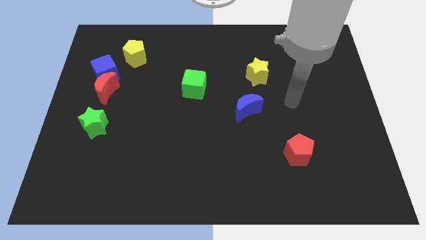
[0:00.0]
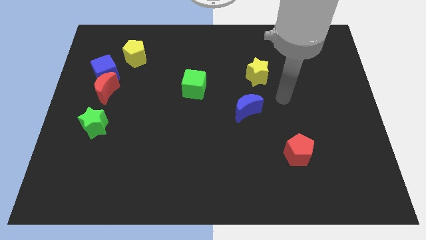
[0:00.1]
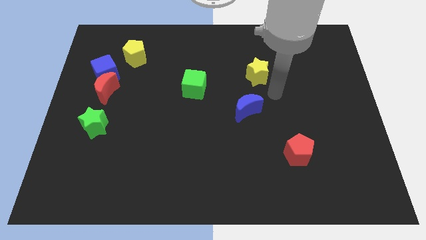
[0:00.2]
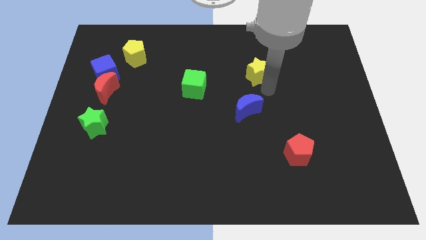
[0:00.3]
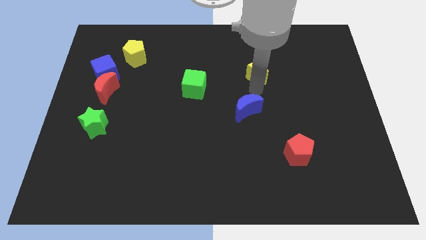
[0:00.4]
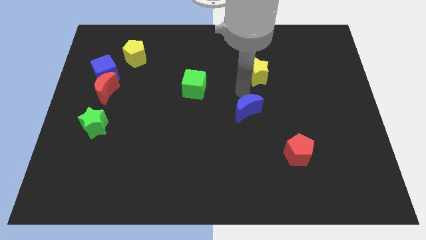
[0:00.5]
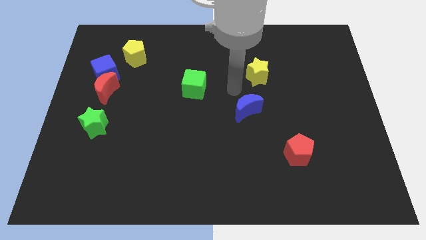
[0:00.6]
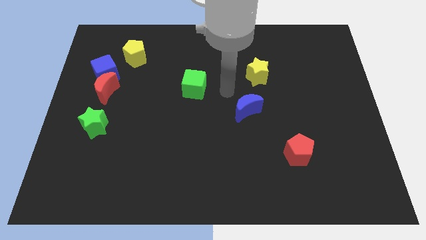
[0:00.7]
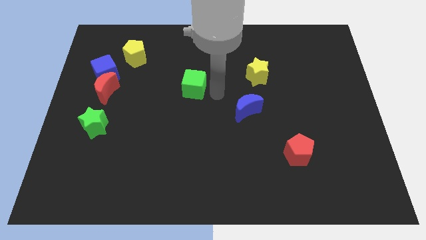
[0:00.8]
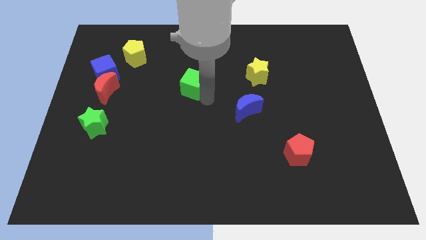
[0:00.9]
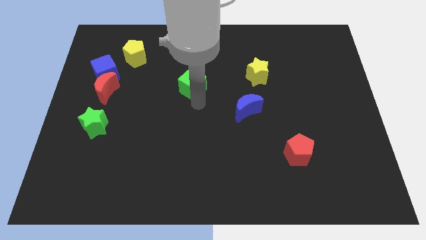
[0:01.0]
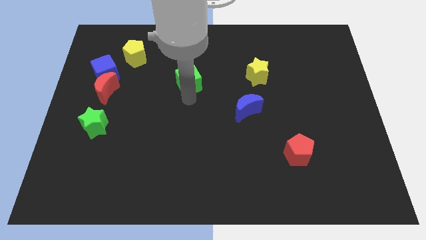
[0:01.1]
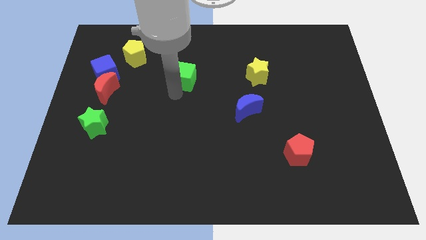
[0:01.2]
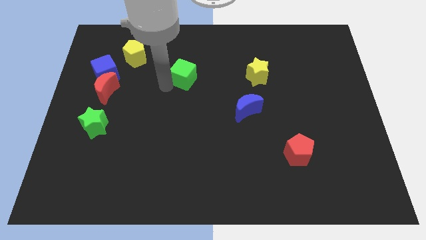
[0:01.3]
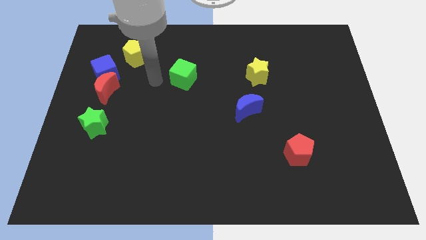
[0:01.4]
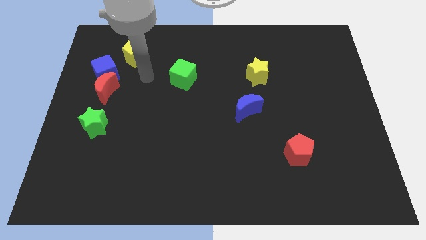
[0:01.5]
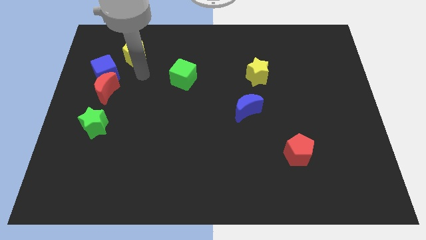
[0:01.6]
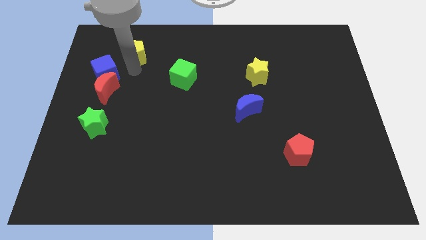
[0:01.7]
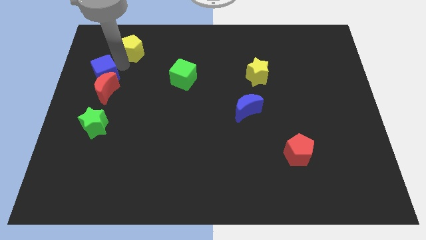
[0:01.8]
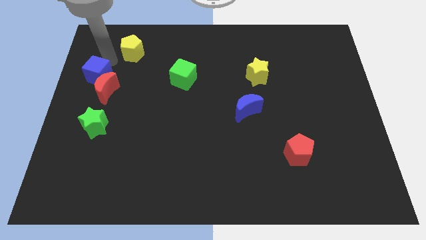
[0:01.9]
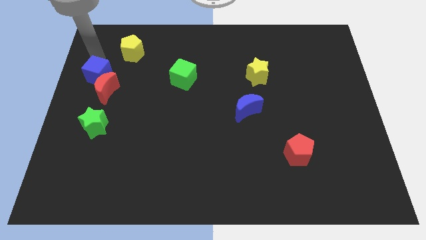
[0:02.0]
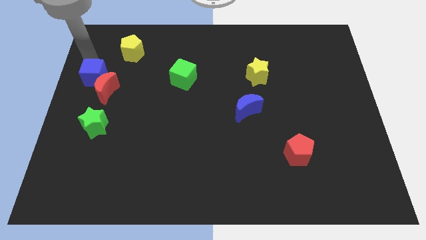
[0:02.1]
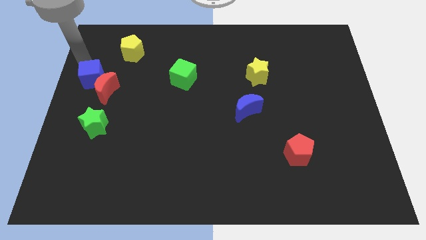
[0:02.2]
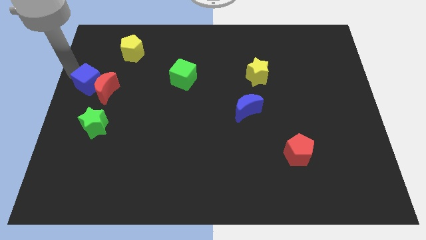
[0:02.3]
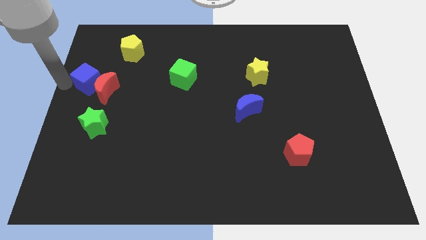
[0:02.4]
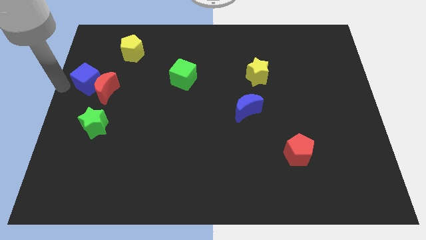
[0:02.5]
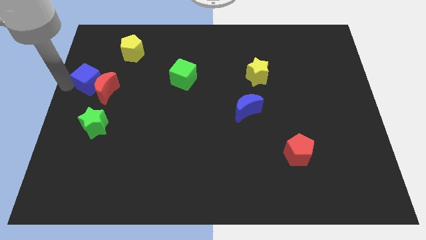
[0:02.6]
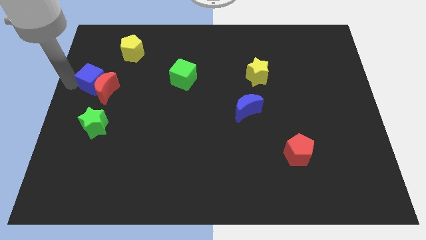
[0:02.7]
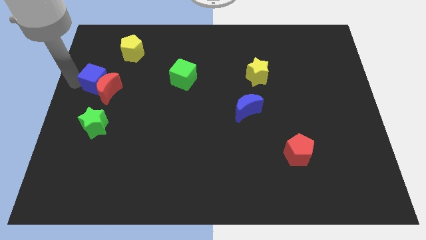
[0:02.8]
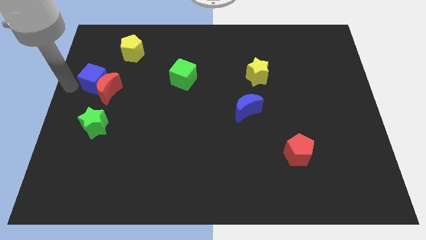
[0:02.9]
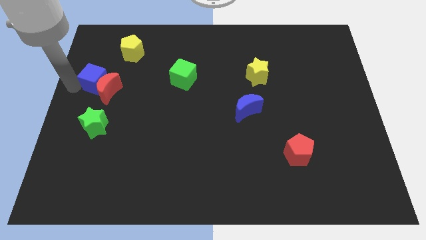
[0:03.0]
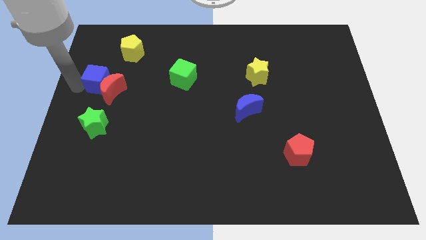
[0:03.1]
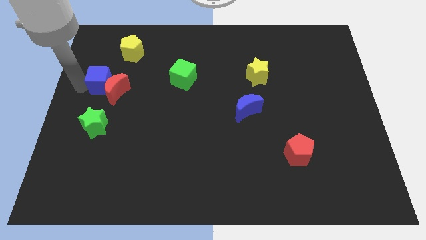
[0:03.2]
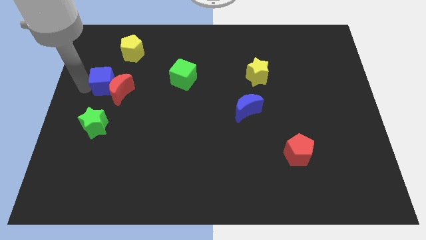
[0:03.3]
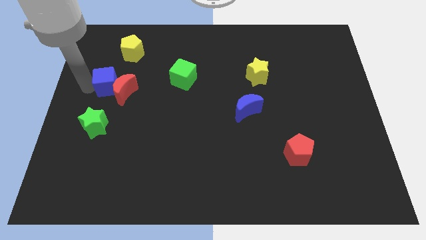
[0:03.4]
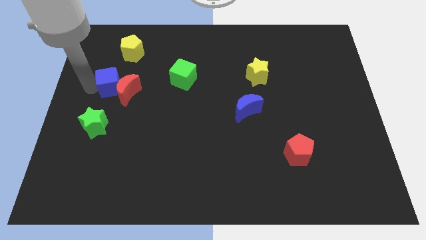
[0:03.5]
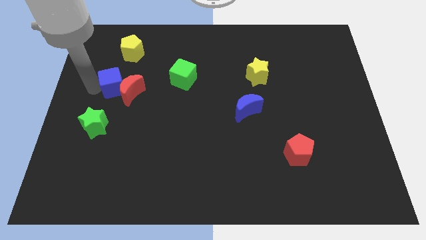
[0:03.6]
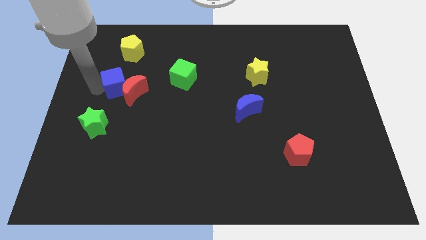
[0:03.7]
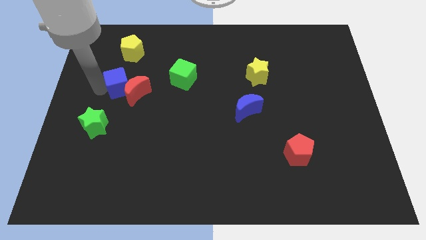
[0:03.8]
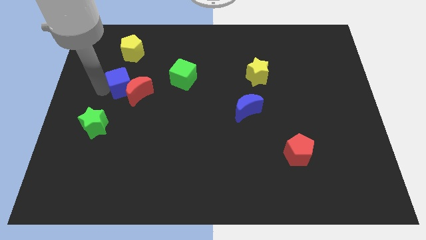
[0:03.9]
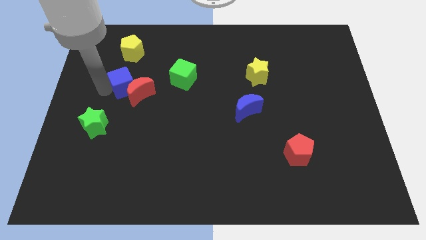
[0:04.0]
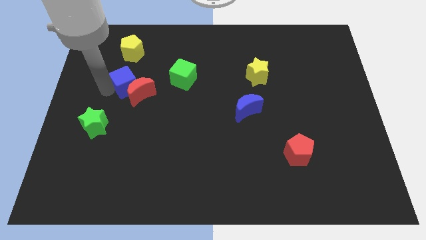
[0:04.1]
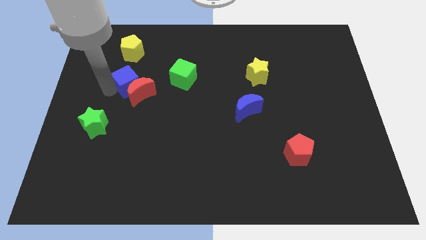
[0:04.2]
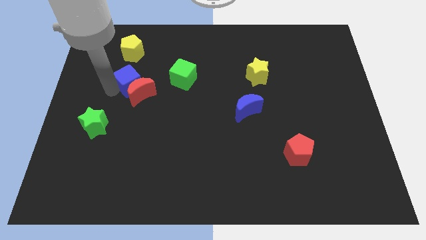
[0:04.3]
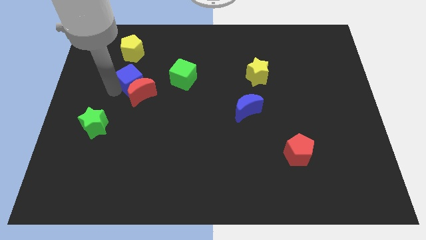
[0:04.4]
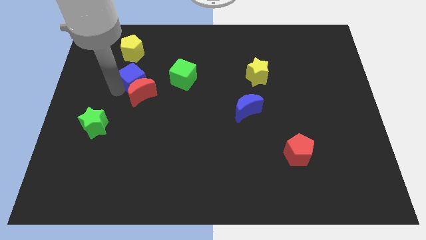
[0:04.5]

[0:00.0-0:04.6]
slightly move the blue cube to the right

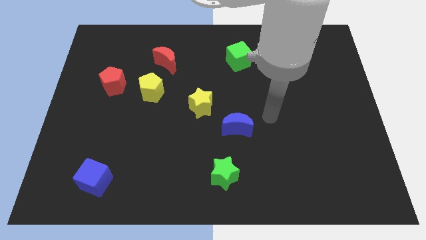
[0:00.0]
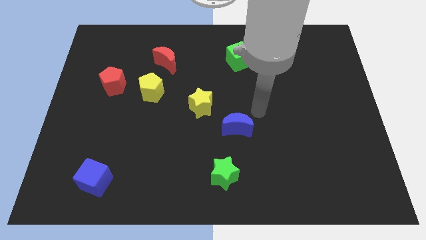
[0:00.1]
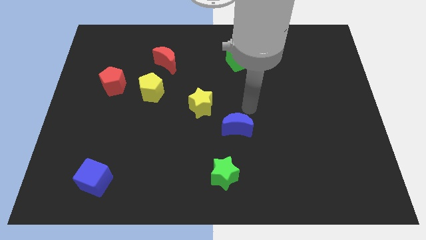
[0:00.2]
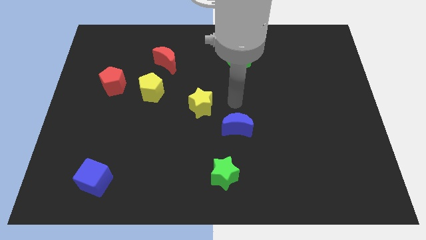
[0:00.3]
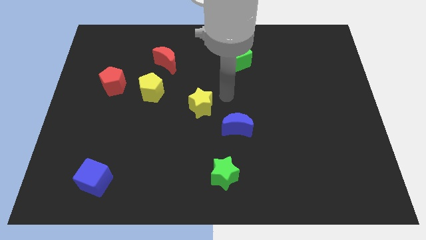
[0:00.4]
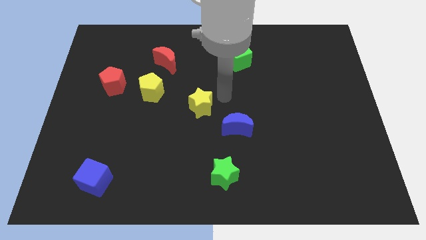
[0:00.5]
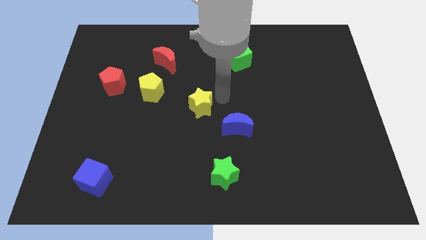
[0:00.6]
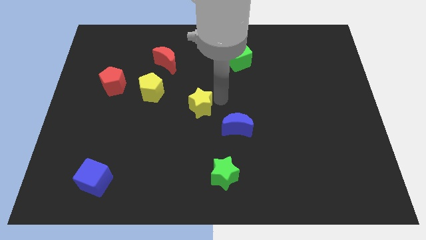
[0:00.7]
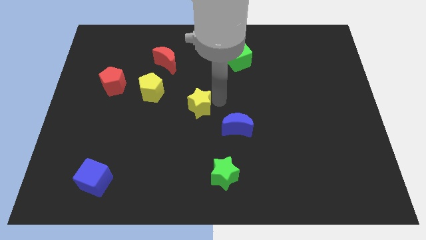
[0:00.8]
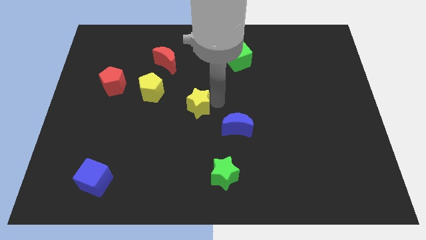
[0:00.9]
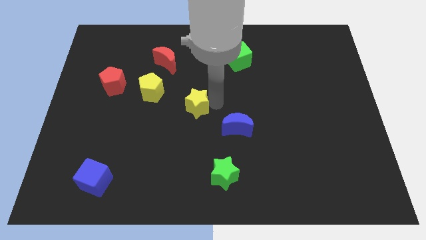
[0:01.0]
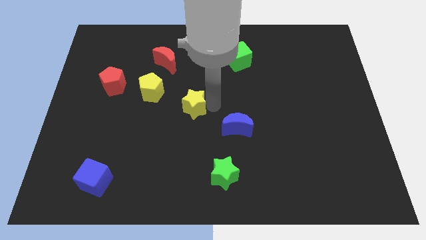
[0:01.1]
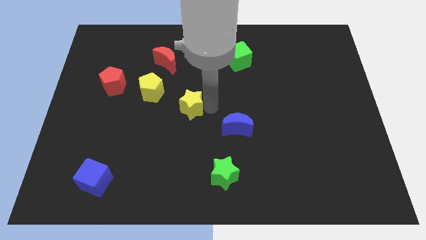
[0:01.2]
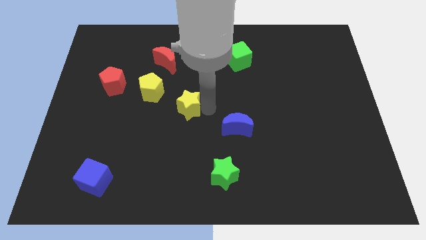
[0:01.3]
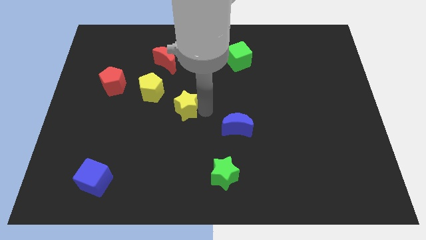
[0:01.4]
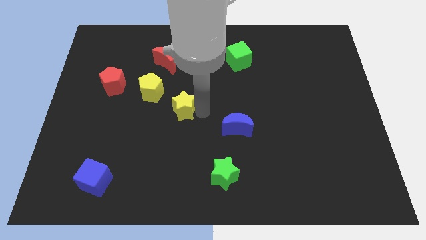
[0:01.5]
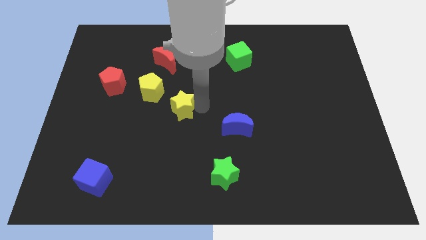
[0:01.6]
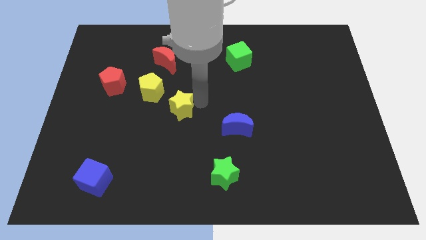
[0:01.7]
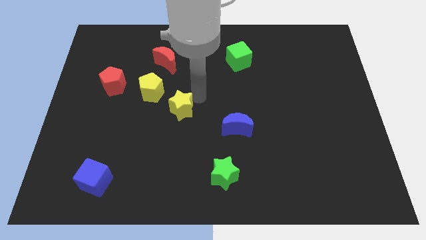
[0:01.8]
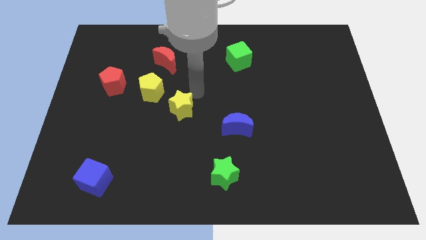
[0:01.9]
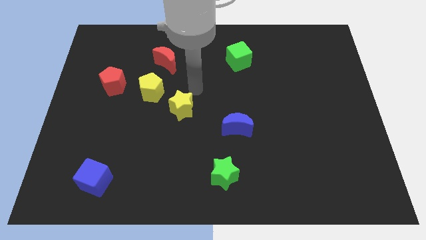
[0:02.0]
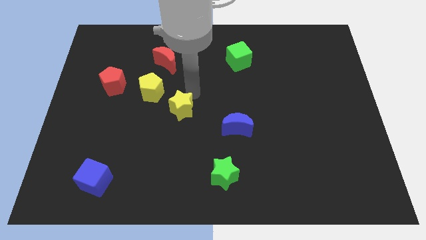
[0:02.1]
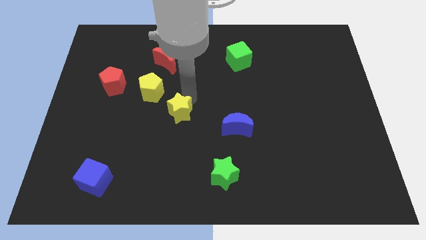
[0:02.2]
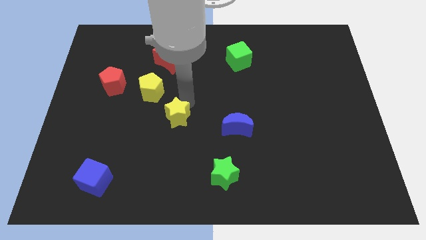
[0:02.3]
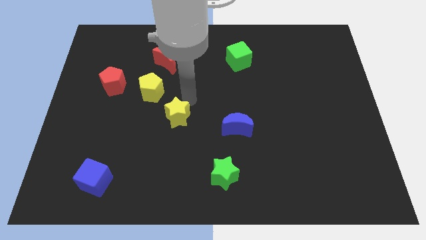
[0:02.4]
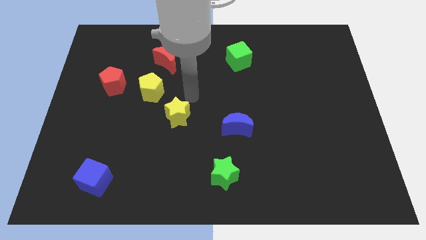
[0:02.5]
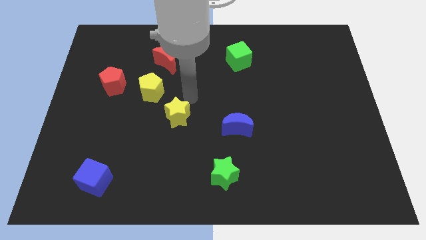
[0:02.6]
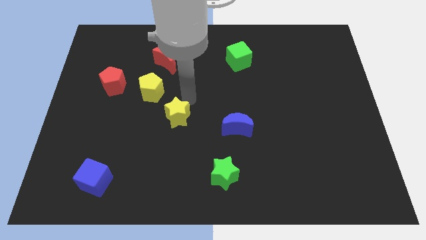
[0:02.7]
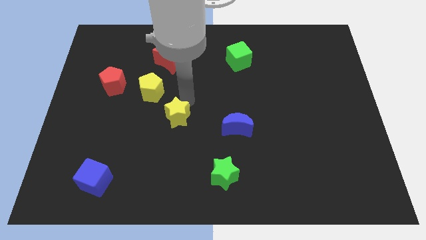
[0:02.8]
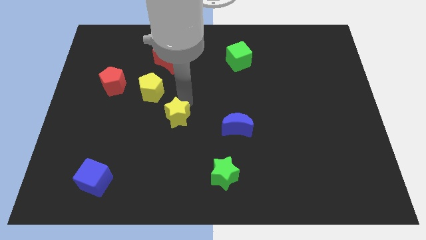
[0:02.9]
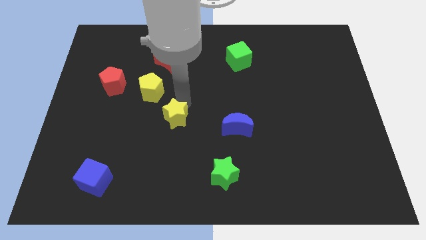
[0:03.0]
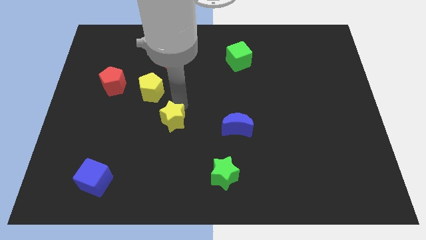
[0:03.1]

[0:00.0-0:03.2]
slightly push the yellow star downwards and then to the left
